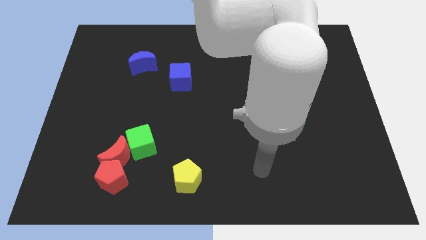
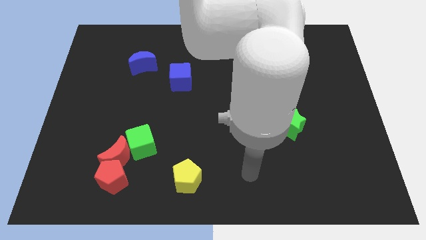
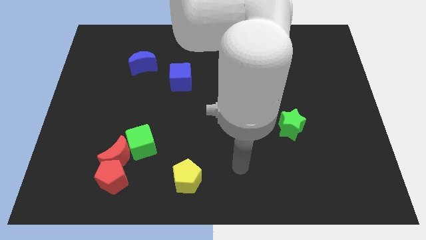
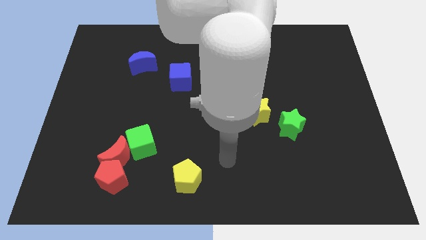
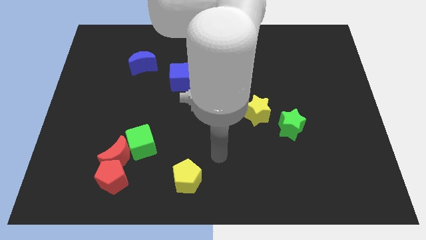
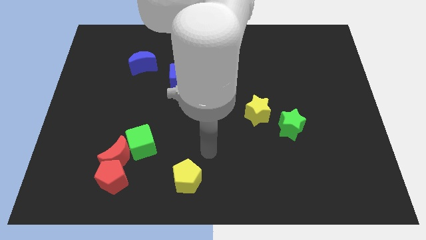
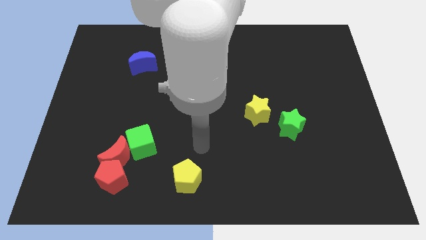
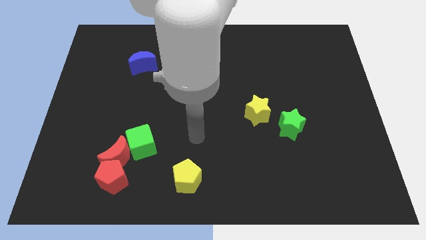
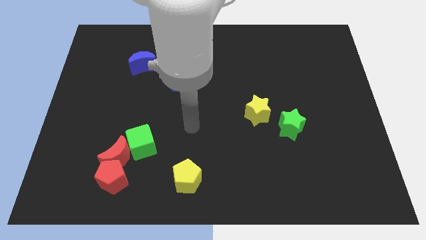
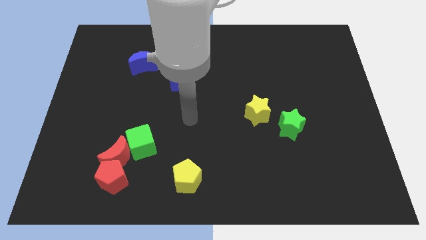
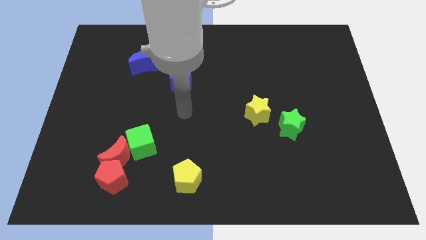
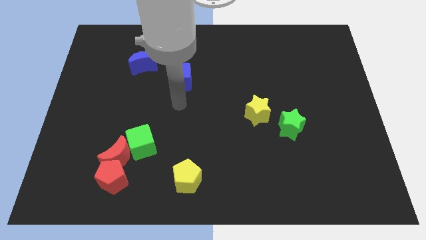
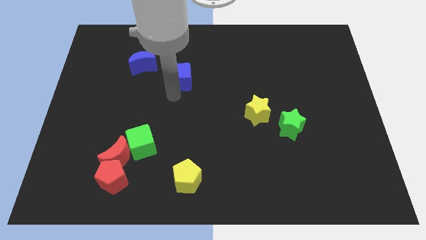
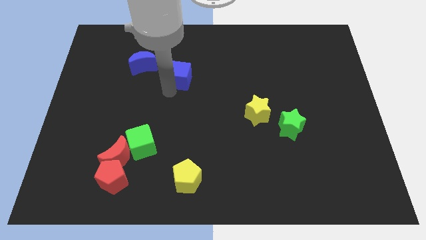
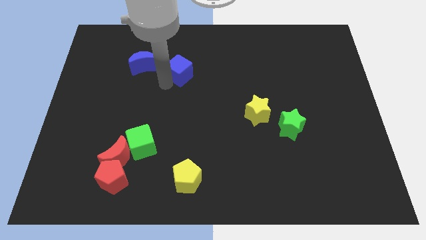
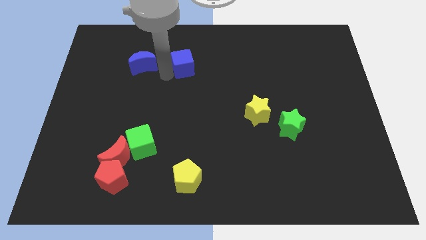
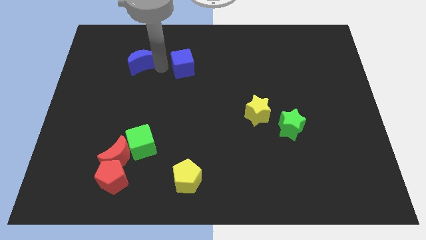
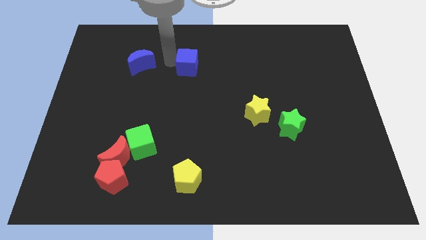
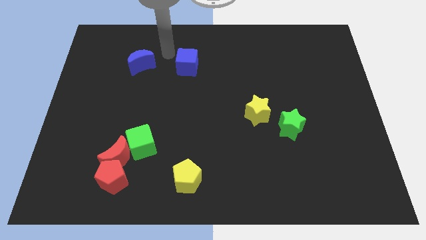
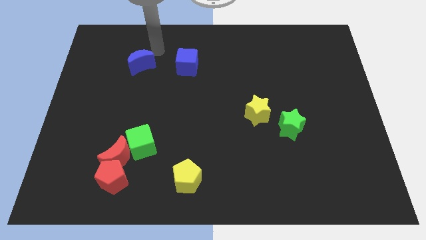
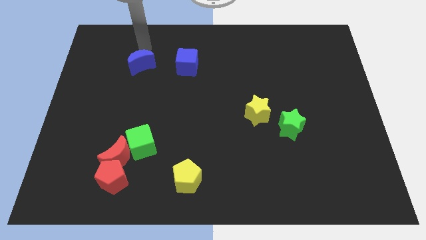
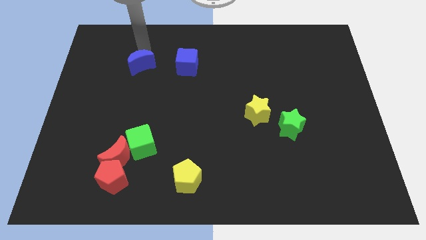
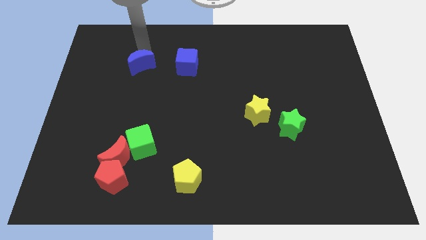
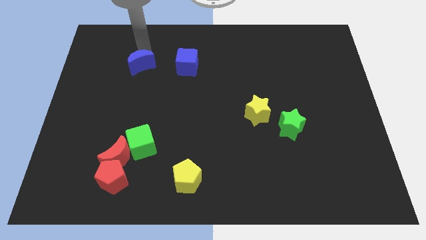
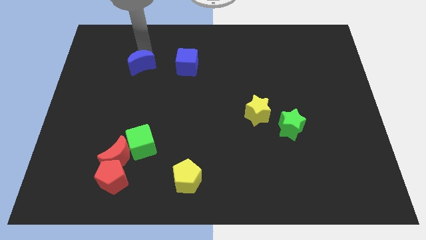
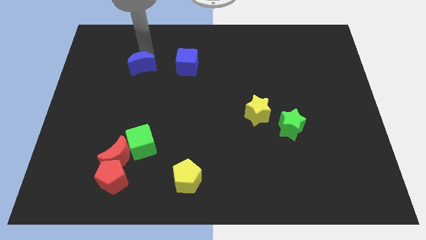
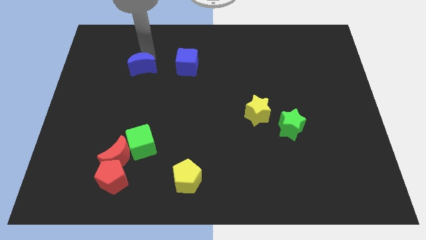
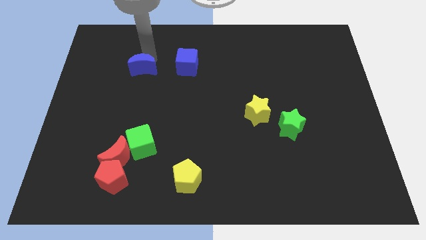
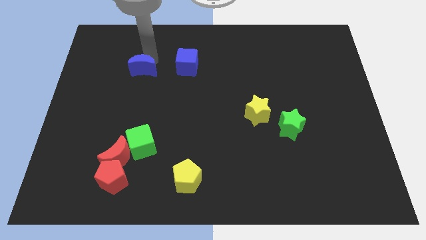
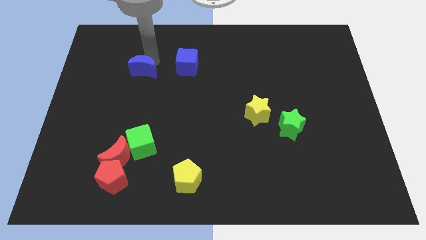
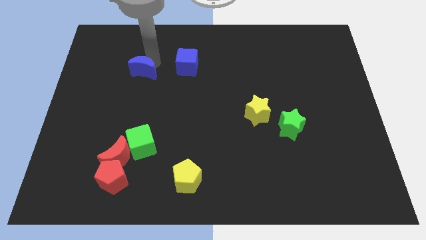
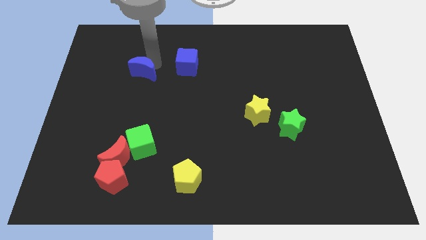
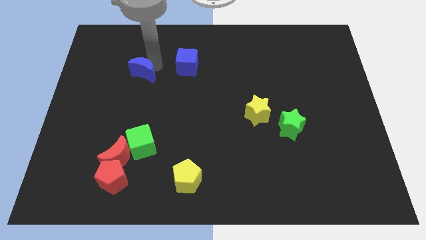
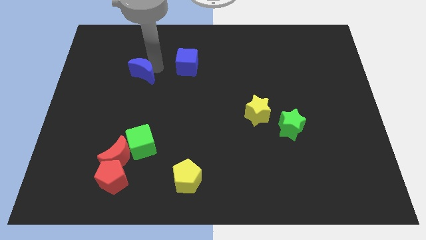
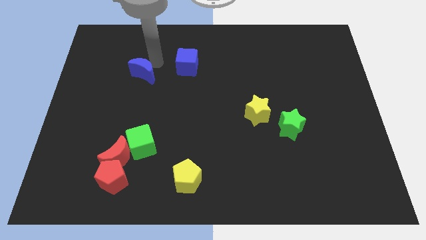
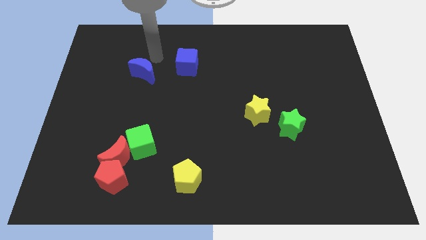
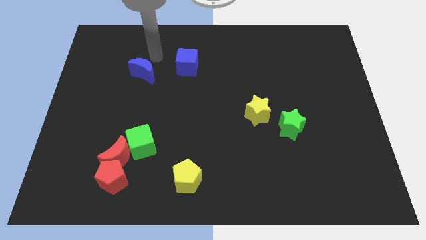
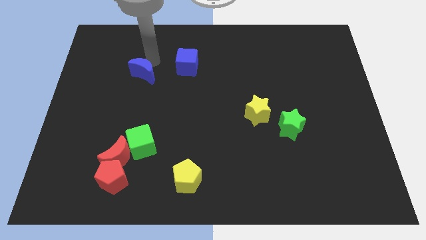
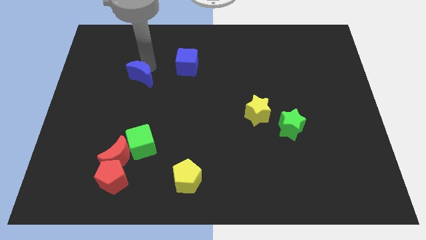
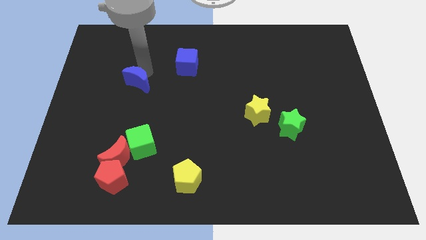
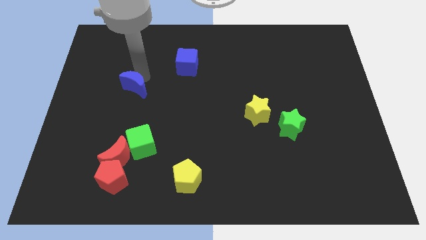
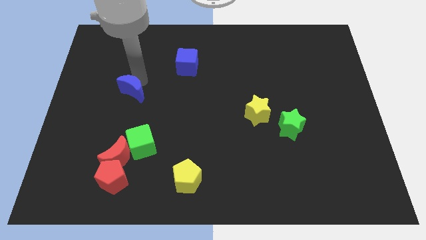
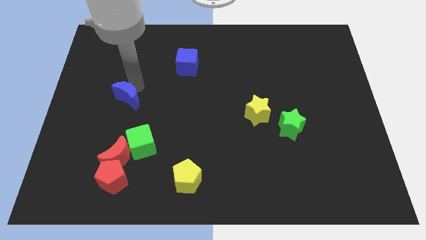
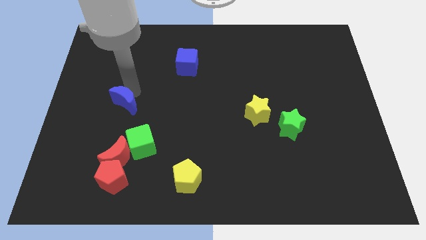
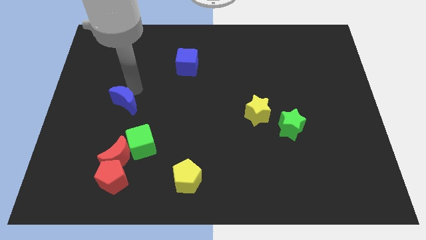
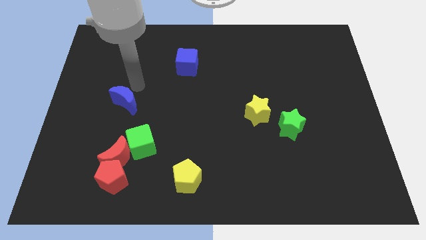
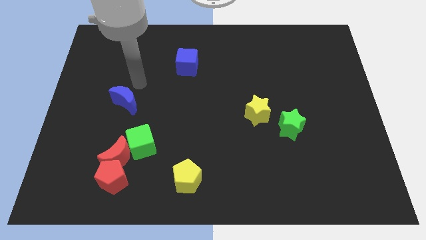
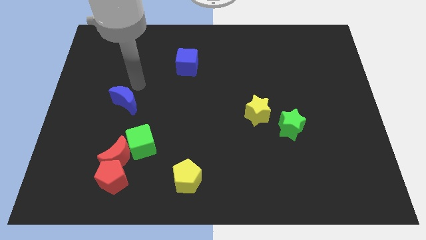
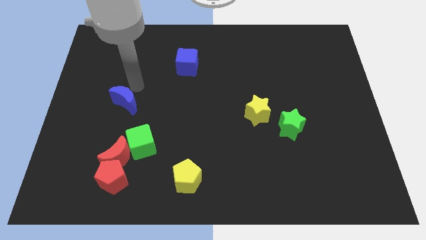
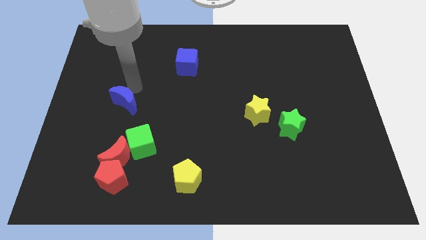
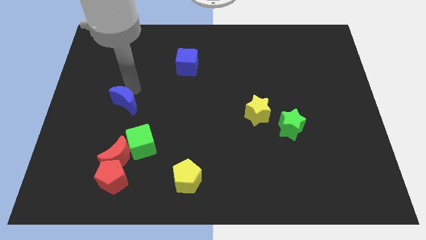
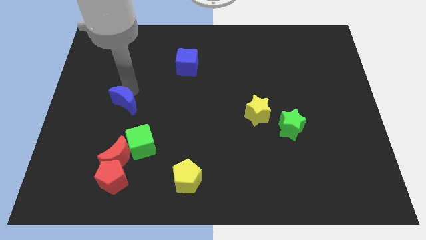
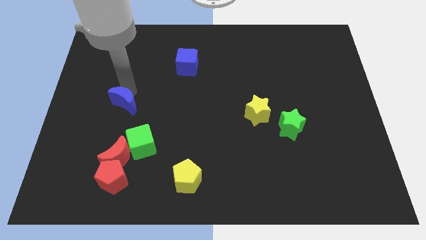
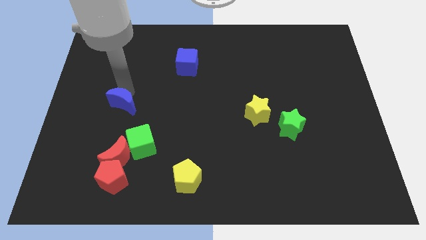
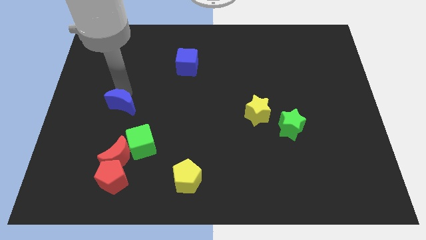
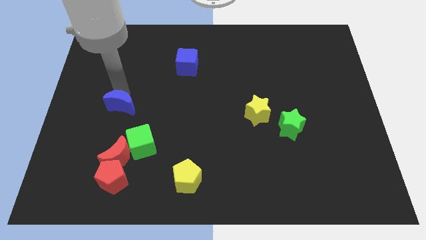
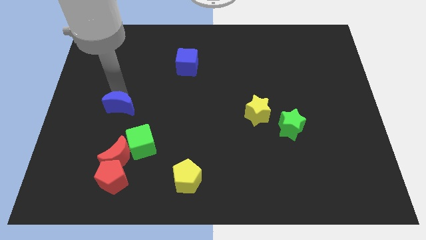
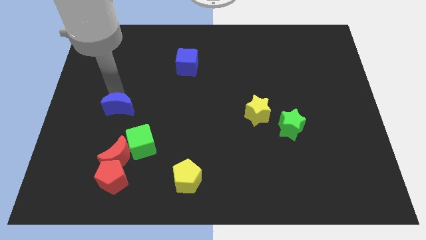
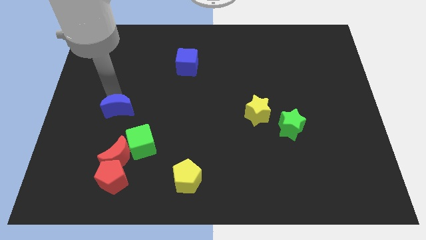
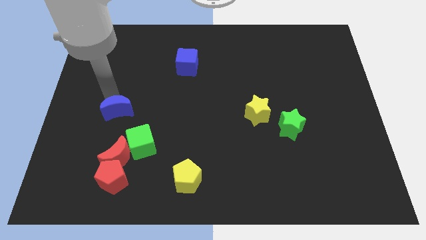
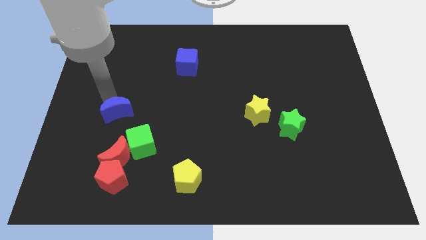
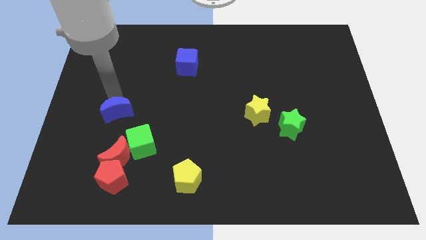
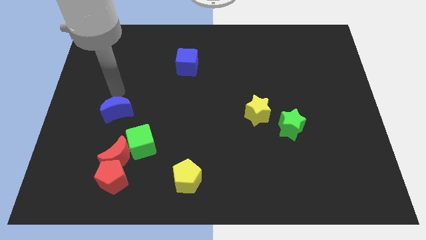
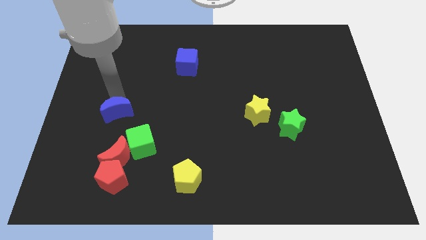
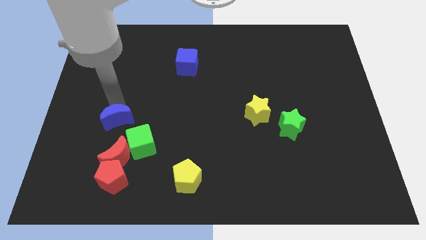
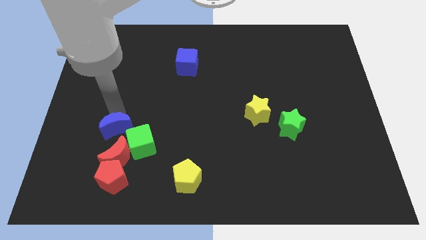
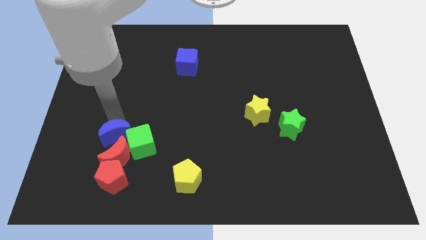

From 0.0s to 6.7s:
move the blue moon next to the red moon
